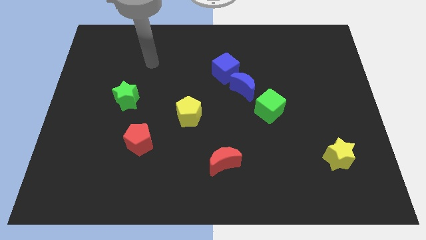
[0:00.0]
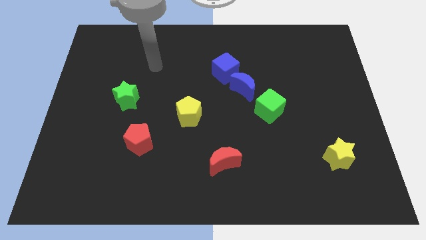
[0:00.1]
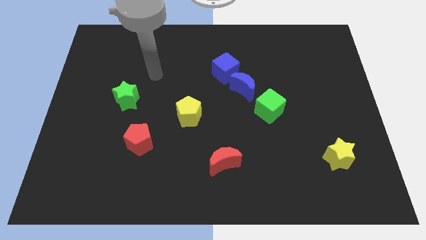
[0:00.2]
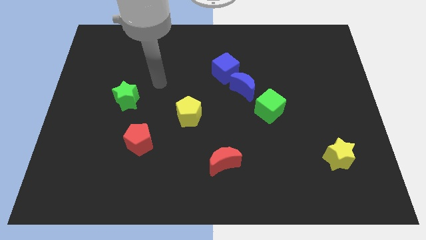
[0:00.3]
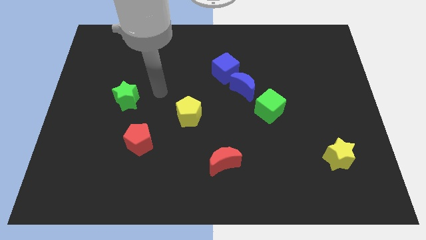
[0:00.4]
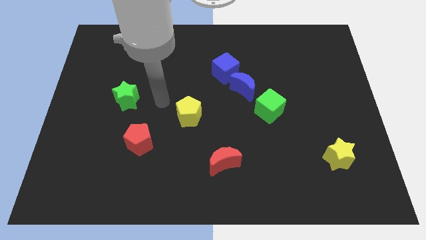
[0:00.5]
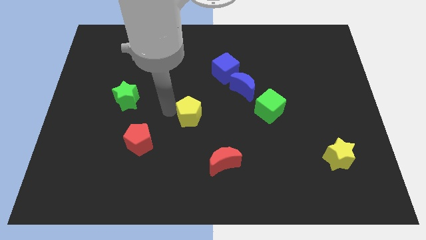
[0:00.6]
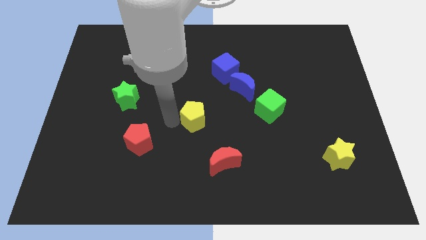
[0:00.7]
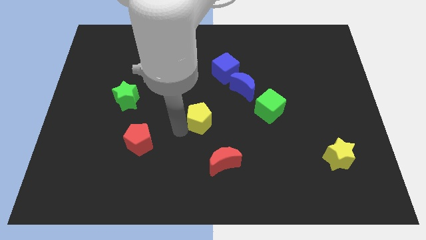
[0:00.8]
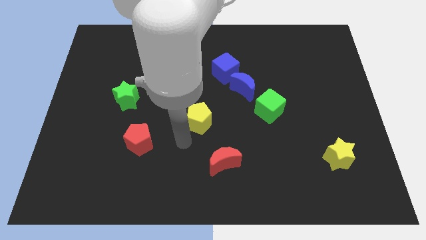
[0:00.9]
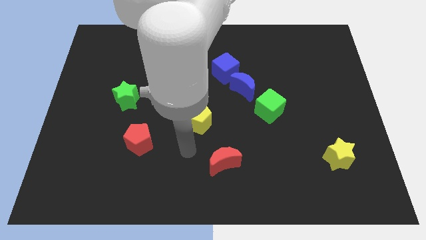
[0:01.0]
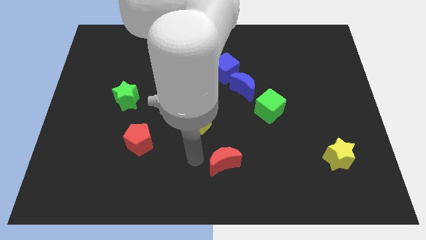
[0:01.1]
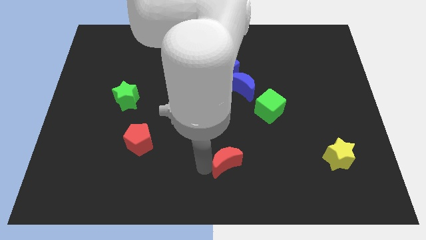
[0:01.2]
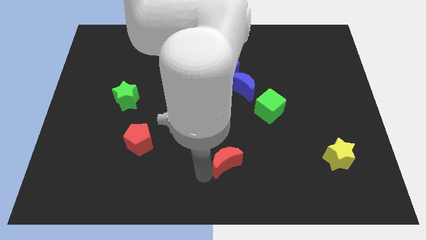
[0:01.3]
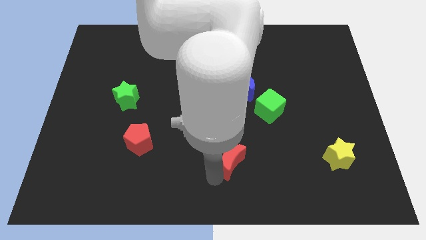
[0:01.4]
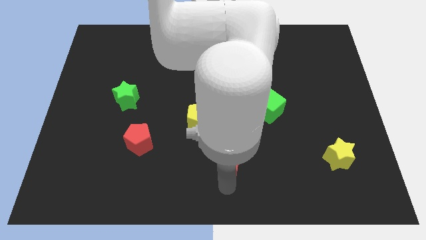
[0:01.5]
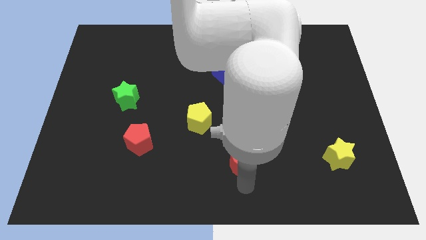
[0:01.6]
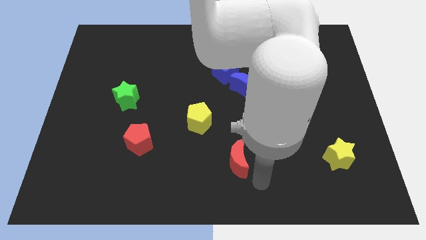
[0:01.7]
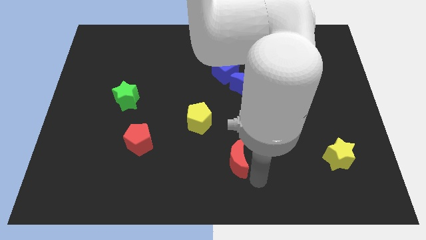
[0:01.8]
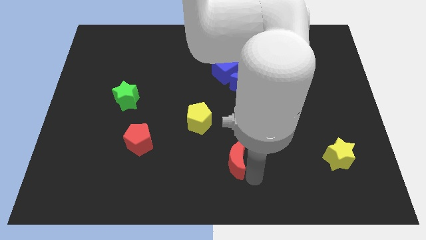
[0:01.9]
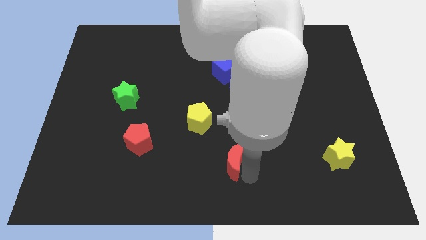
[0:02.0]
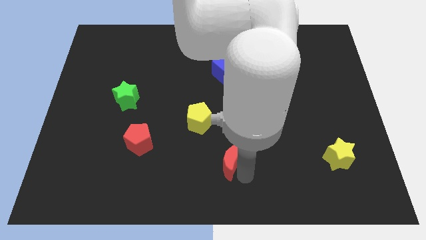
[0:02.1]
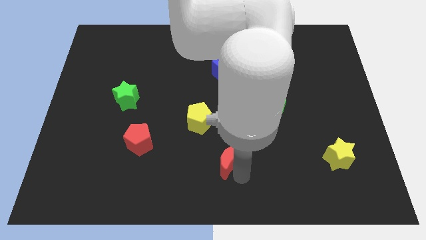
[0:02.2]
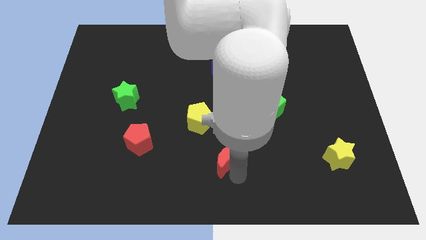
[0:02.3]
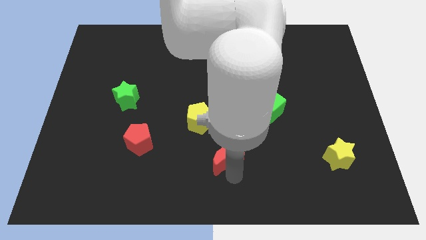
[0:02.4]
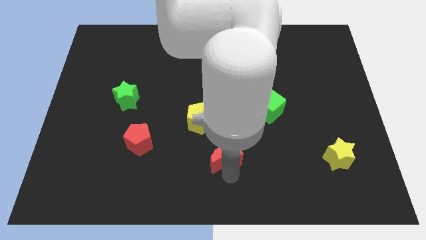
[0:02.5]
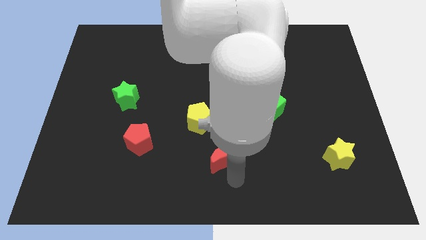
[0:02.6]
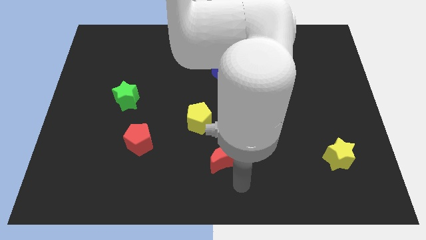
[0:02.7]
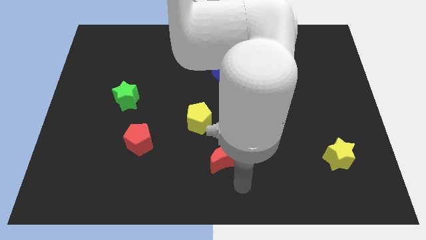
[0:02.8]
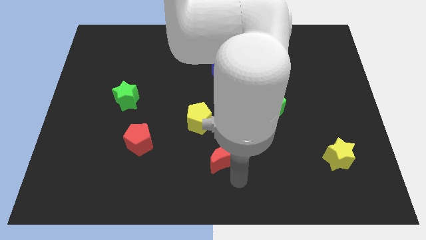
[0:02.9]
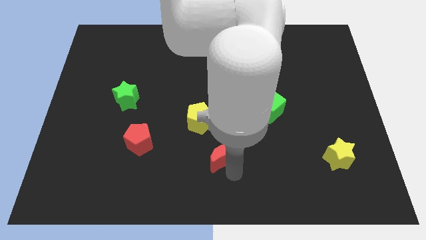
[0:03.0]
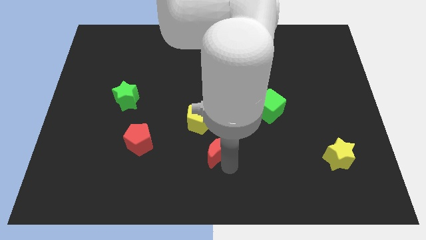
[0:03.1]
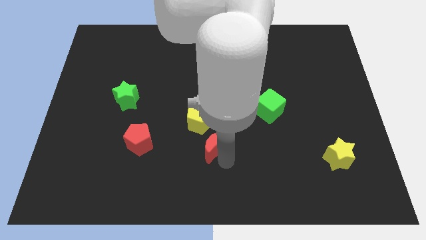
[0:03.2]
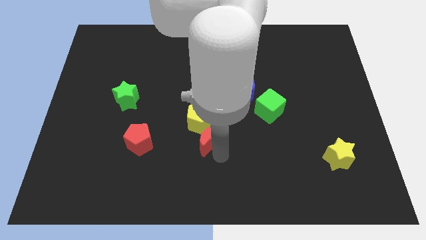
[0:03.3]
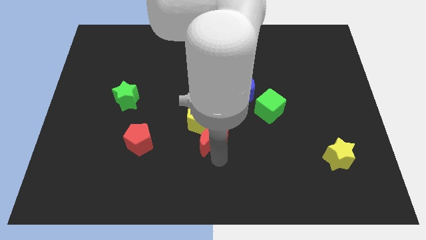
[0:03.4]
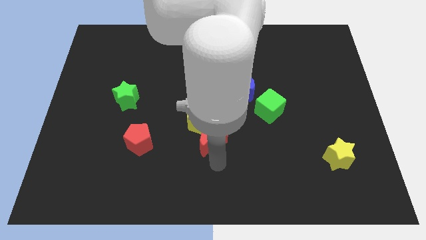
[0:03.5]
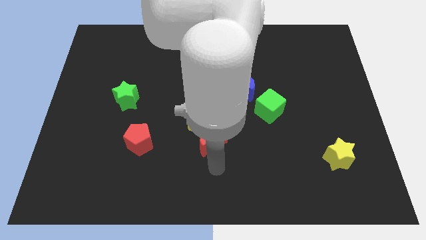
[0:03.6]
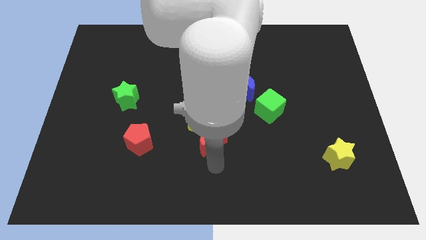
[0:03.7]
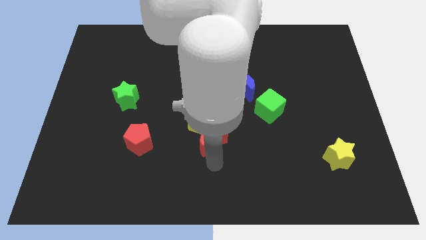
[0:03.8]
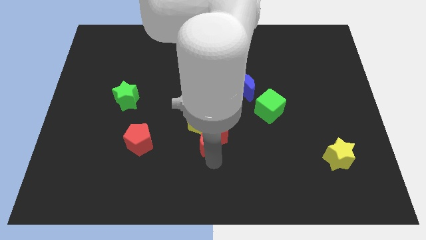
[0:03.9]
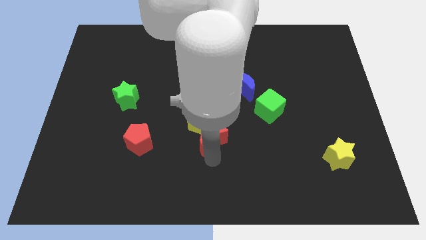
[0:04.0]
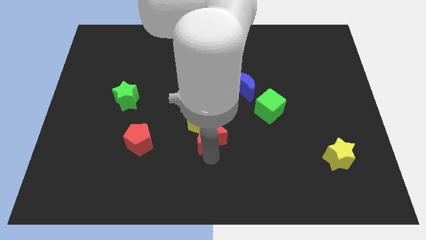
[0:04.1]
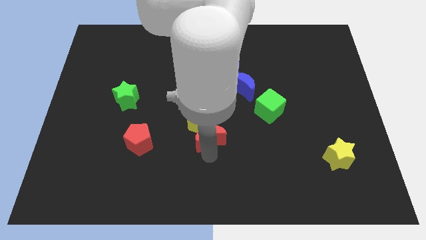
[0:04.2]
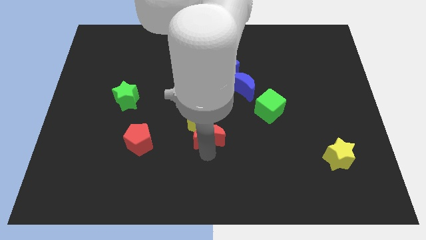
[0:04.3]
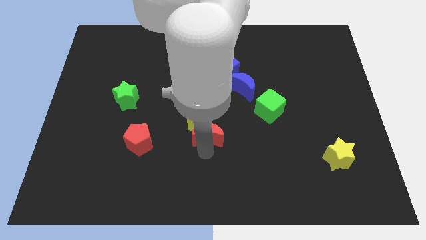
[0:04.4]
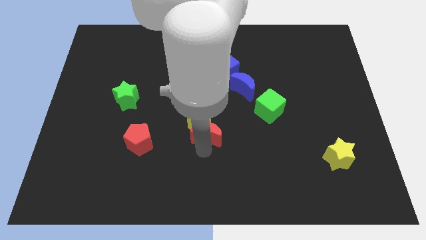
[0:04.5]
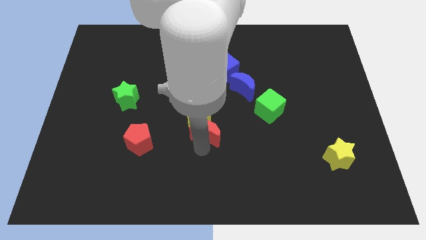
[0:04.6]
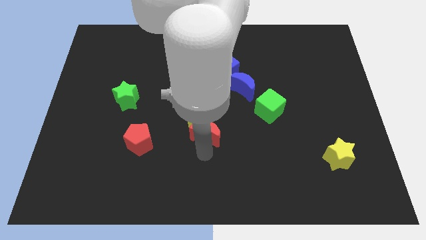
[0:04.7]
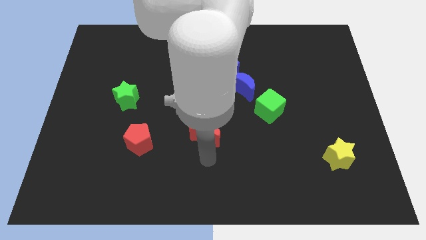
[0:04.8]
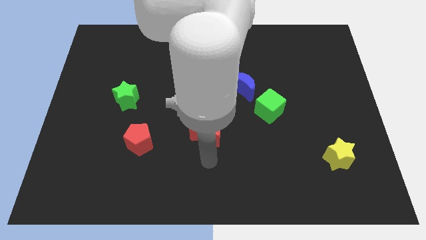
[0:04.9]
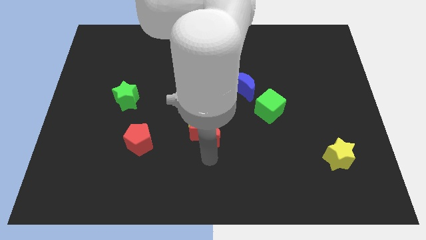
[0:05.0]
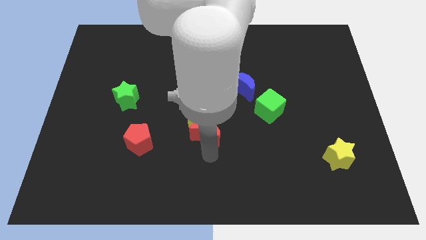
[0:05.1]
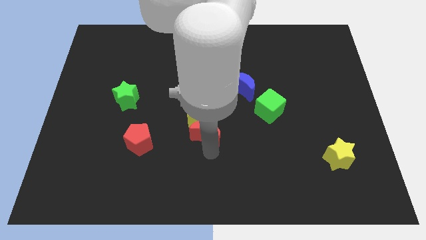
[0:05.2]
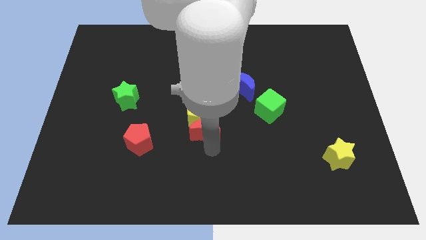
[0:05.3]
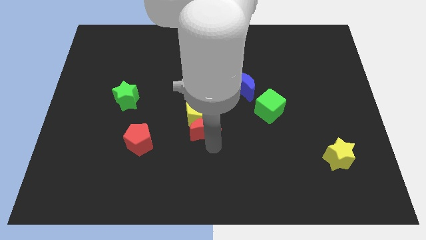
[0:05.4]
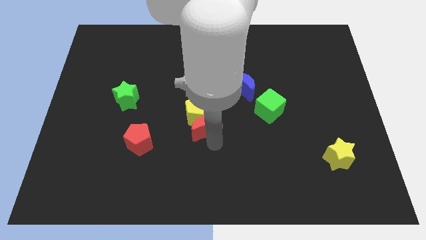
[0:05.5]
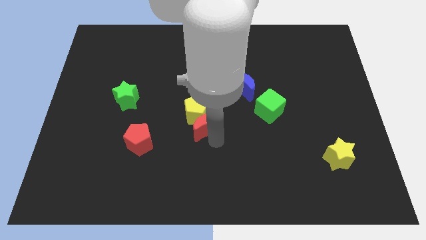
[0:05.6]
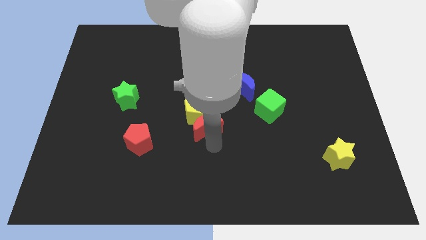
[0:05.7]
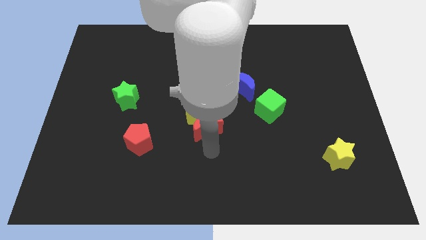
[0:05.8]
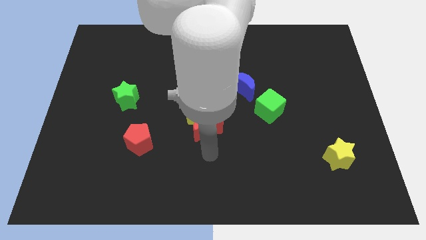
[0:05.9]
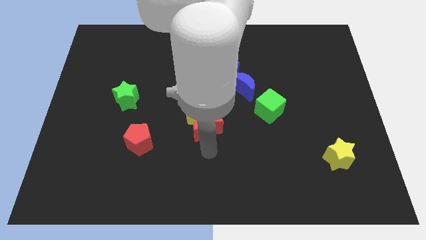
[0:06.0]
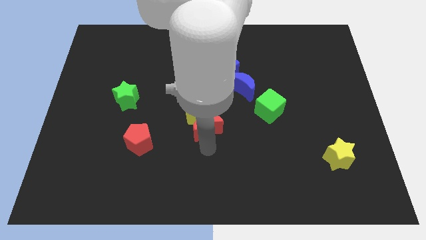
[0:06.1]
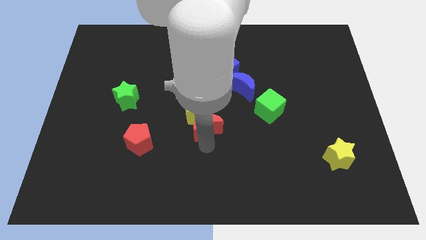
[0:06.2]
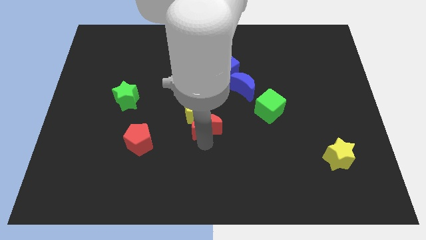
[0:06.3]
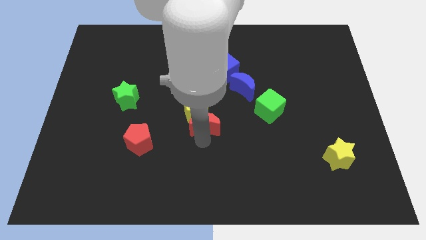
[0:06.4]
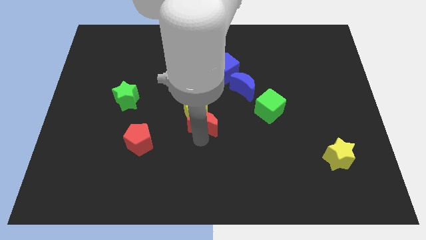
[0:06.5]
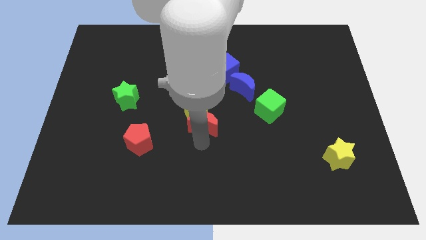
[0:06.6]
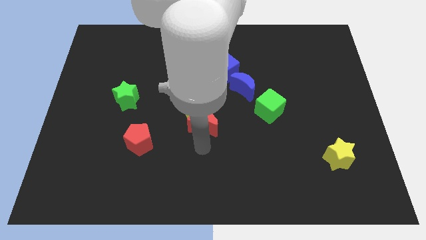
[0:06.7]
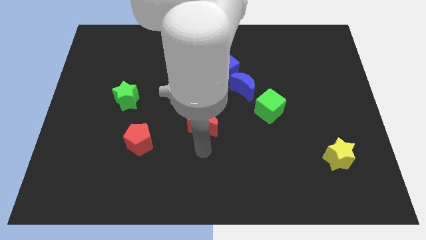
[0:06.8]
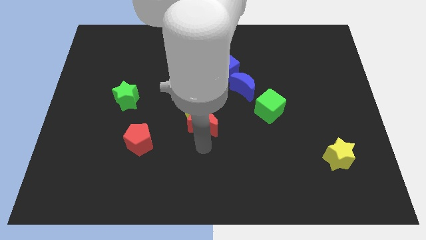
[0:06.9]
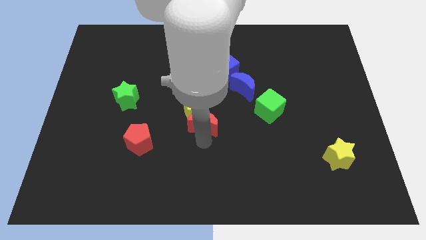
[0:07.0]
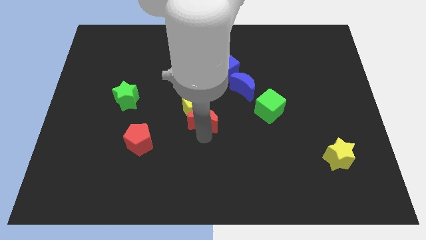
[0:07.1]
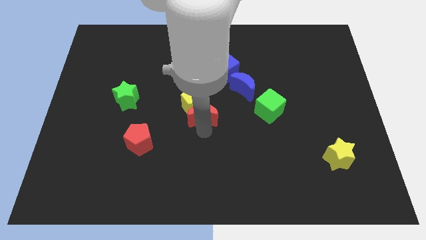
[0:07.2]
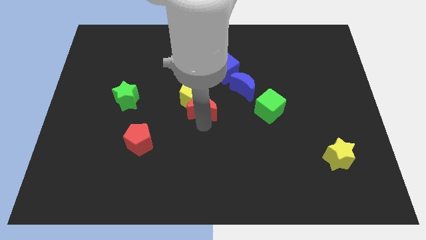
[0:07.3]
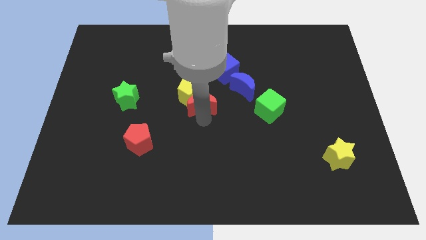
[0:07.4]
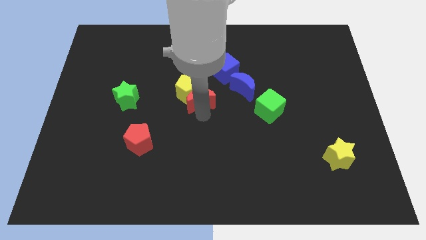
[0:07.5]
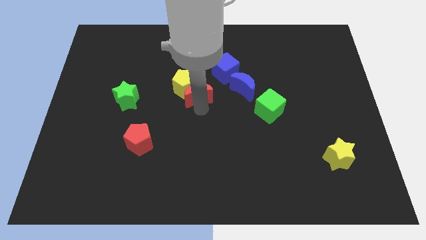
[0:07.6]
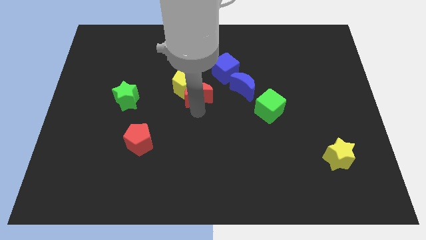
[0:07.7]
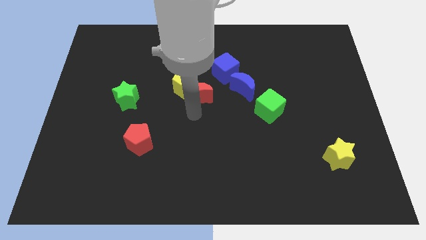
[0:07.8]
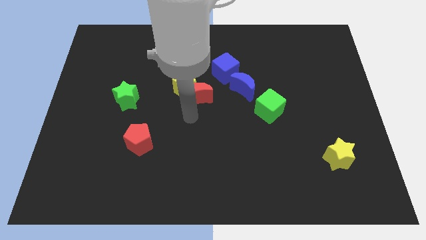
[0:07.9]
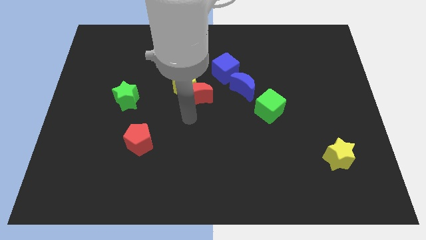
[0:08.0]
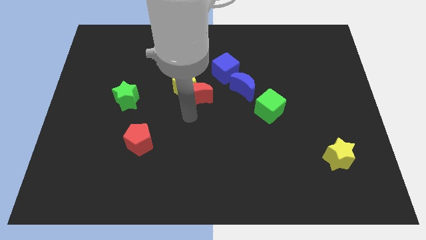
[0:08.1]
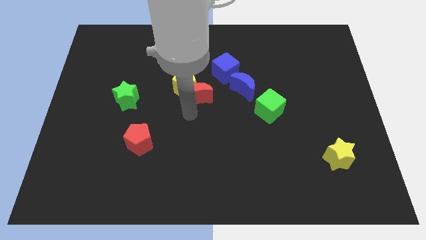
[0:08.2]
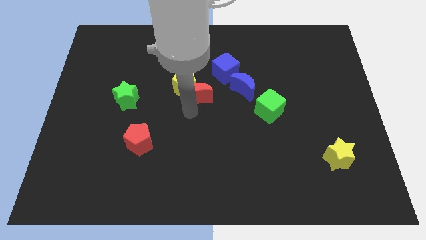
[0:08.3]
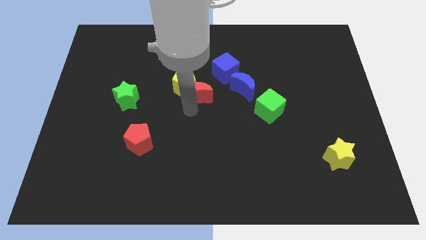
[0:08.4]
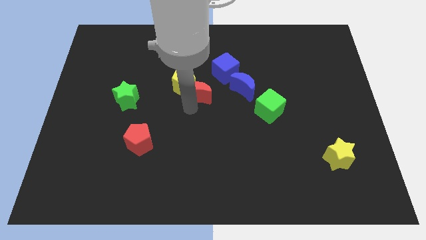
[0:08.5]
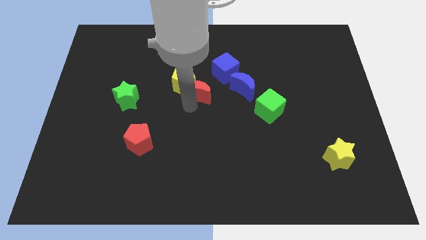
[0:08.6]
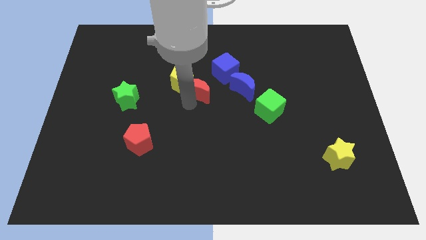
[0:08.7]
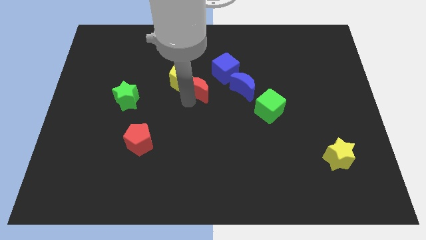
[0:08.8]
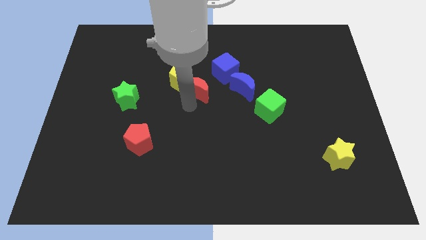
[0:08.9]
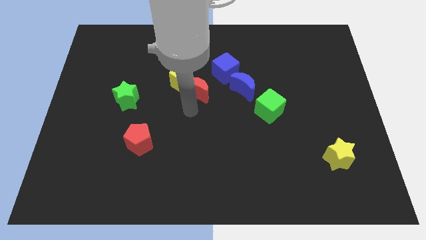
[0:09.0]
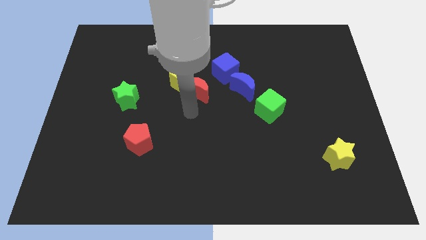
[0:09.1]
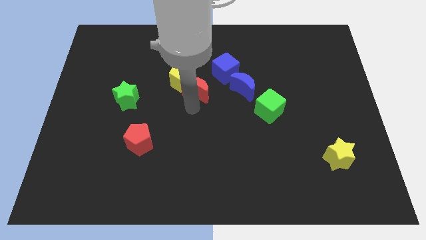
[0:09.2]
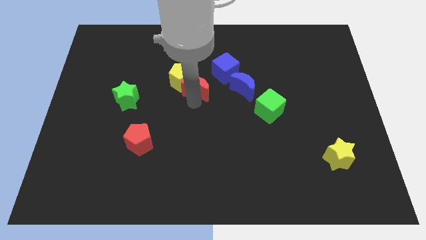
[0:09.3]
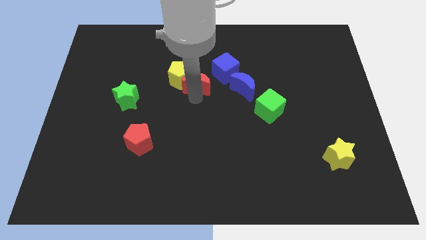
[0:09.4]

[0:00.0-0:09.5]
move the red moon up
